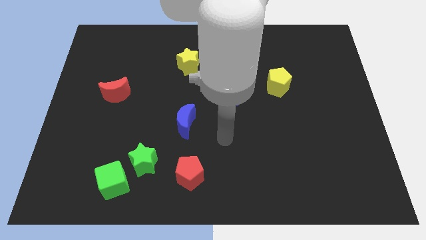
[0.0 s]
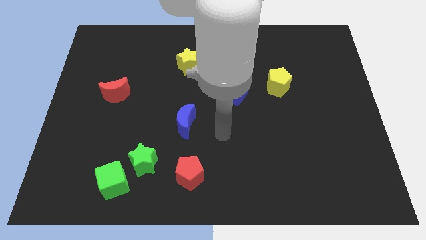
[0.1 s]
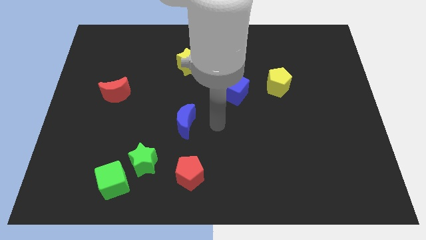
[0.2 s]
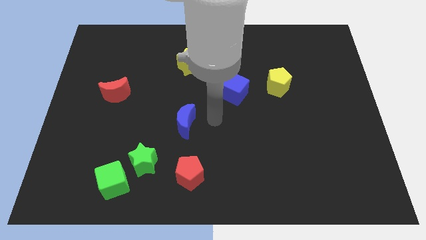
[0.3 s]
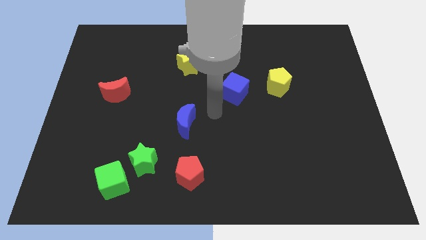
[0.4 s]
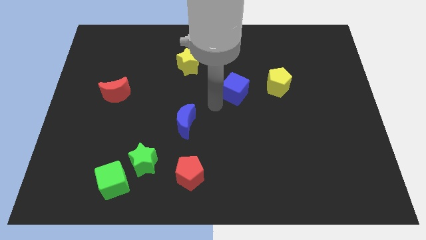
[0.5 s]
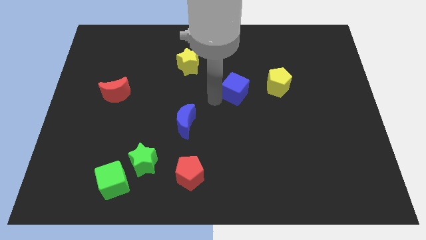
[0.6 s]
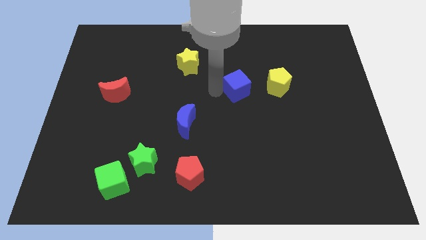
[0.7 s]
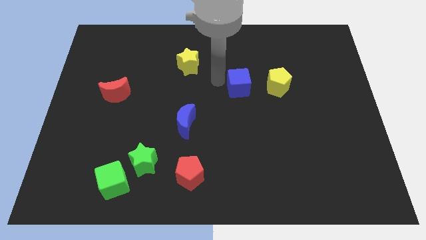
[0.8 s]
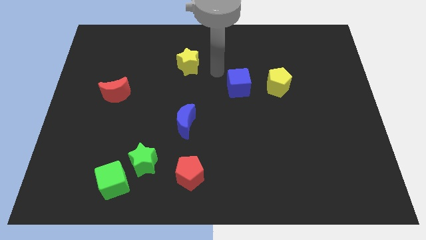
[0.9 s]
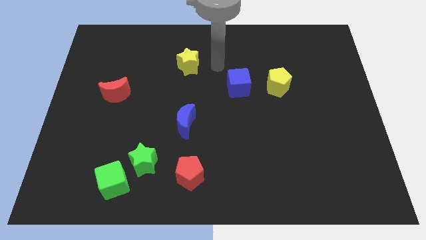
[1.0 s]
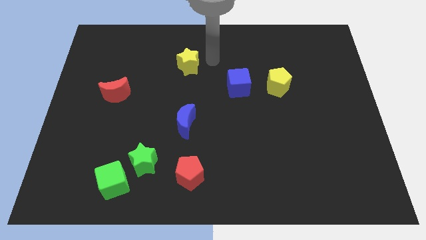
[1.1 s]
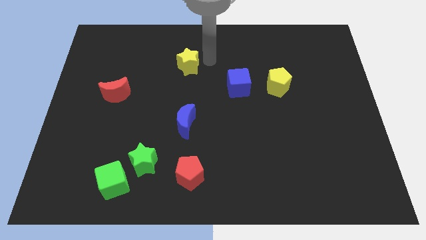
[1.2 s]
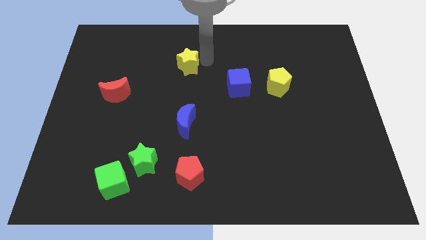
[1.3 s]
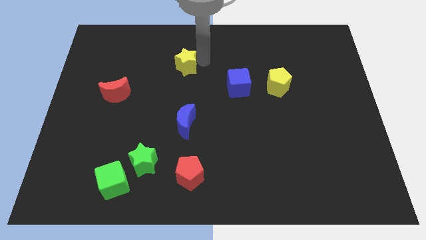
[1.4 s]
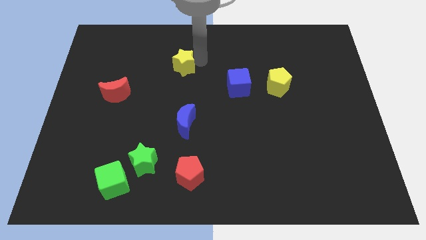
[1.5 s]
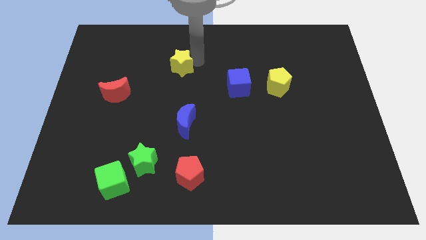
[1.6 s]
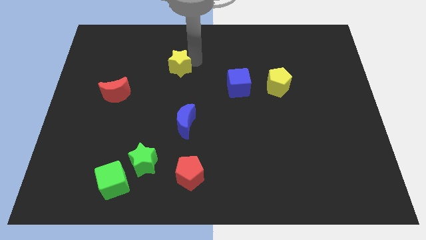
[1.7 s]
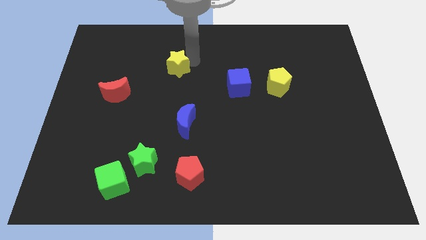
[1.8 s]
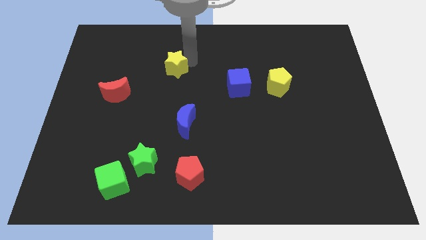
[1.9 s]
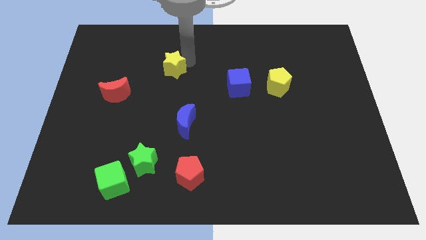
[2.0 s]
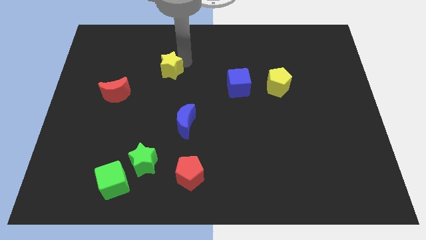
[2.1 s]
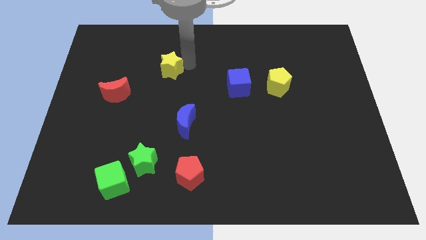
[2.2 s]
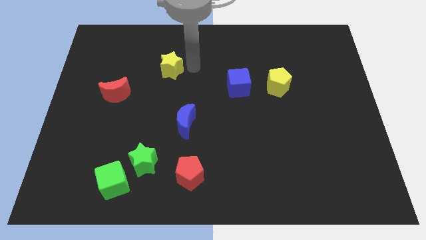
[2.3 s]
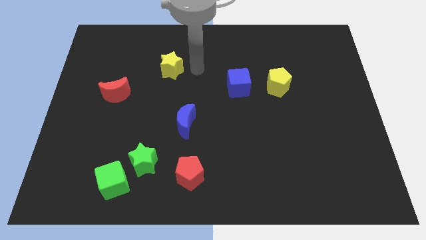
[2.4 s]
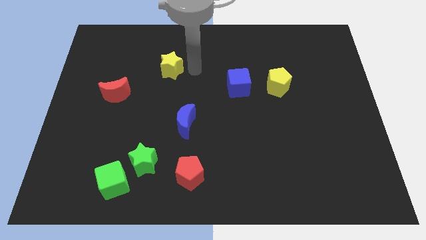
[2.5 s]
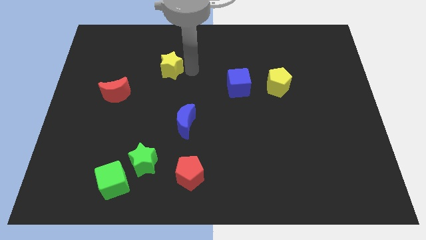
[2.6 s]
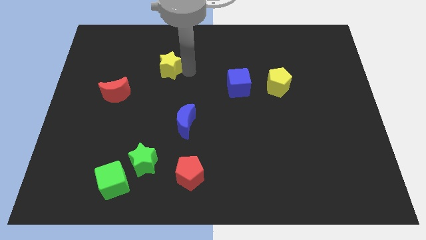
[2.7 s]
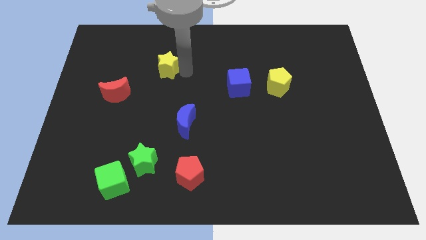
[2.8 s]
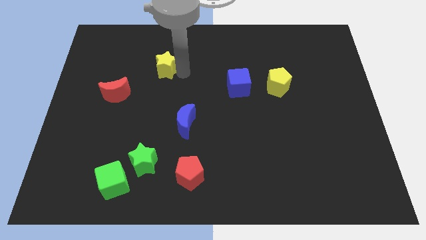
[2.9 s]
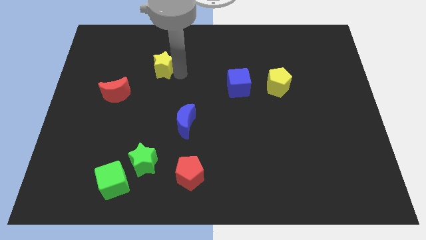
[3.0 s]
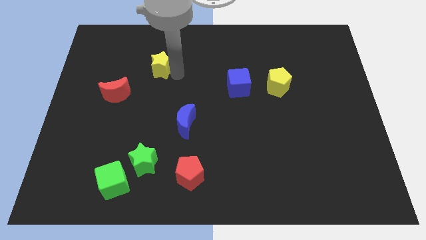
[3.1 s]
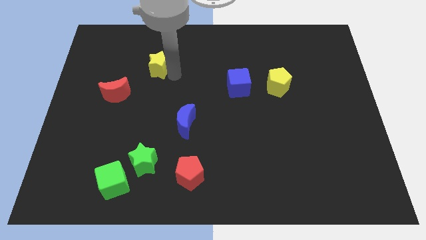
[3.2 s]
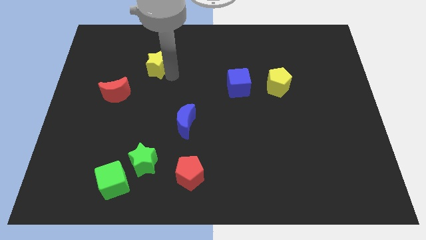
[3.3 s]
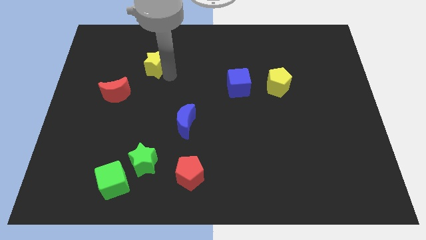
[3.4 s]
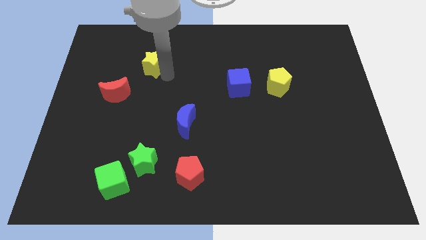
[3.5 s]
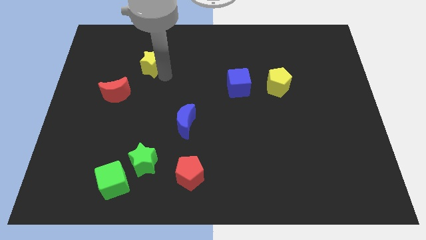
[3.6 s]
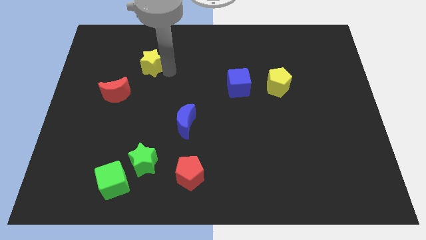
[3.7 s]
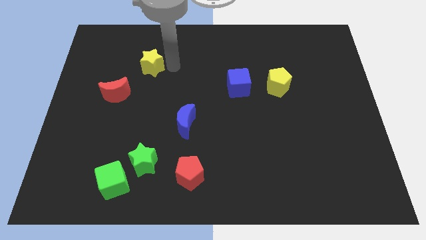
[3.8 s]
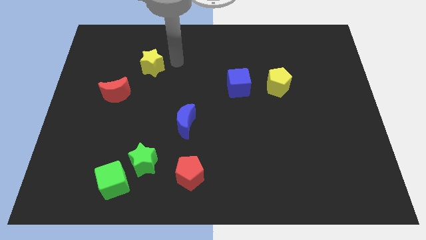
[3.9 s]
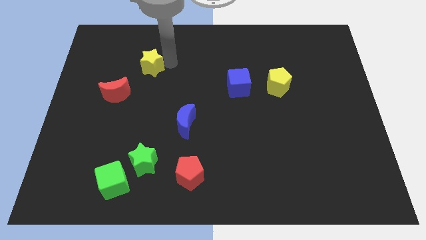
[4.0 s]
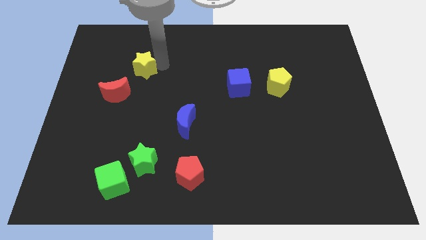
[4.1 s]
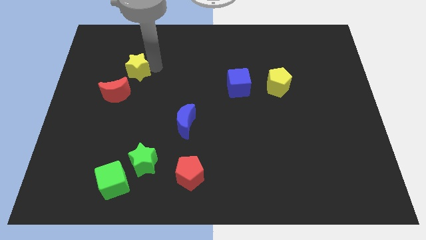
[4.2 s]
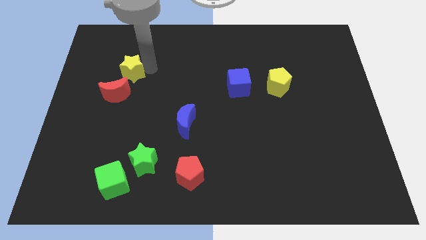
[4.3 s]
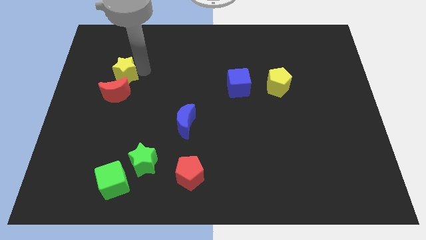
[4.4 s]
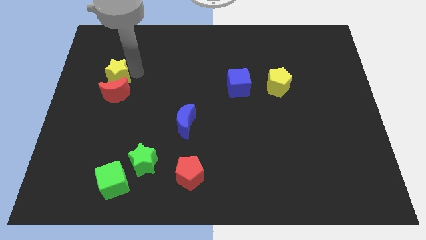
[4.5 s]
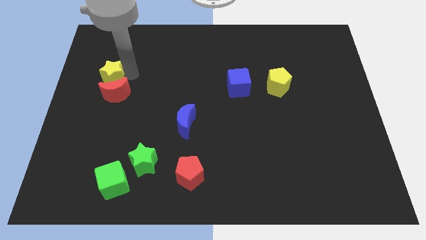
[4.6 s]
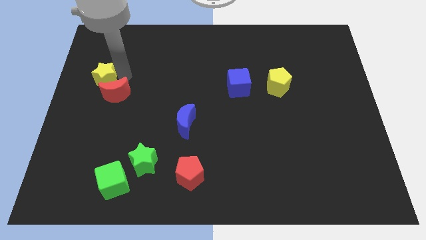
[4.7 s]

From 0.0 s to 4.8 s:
put the yellow star to the left side

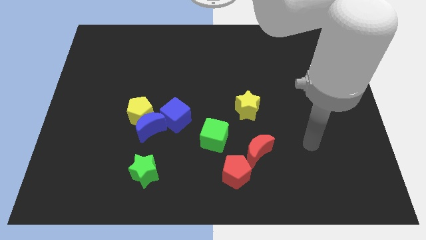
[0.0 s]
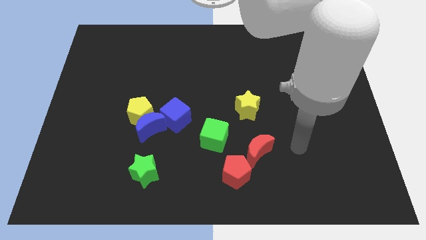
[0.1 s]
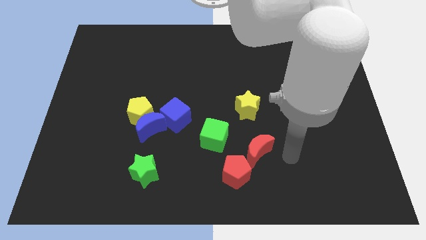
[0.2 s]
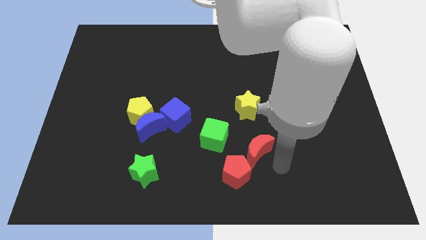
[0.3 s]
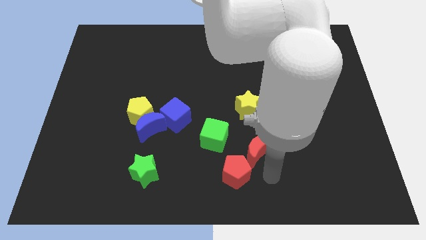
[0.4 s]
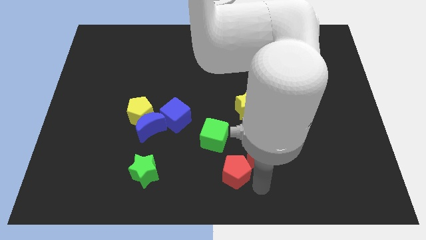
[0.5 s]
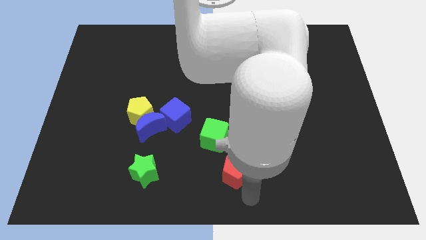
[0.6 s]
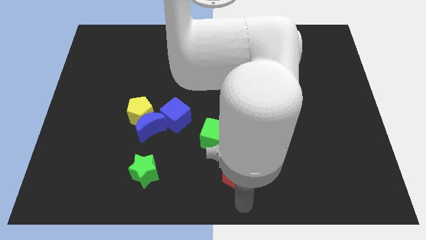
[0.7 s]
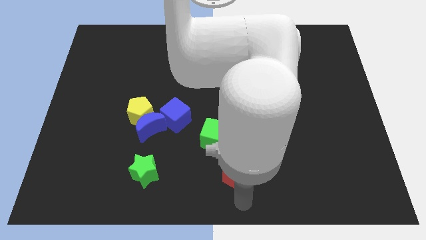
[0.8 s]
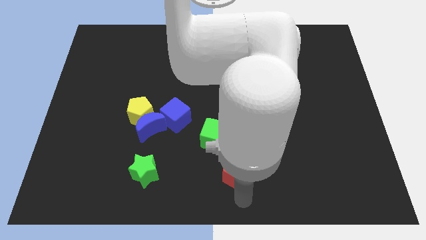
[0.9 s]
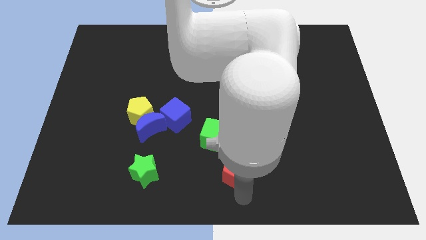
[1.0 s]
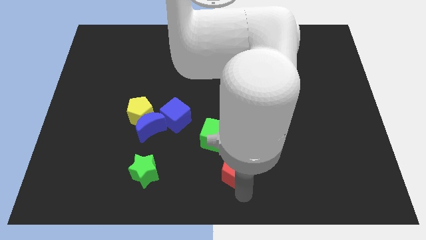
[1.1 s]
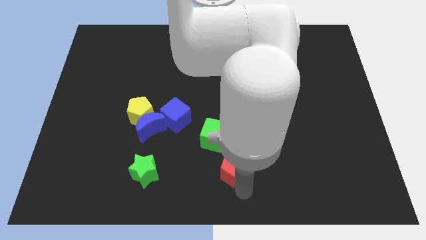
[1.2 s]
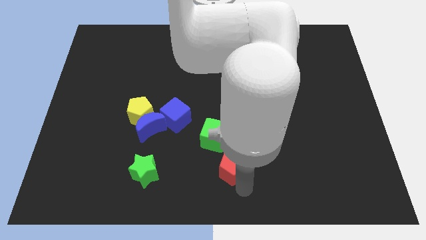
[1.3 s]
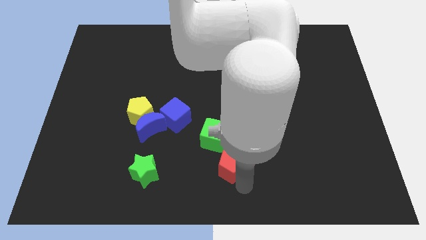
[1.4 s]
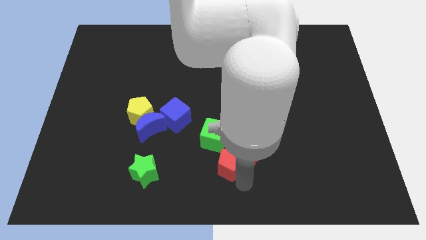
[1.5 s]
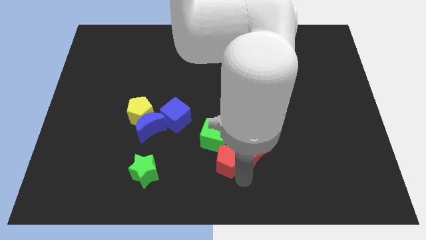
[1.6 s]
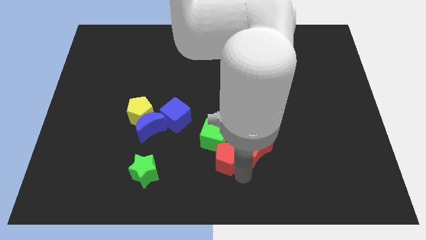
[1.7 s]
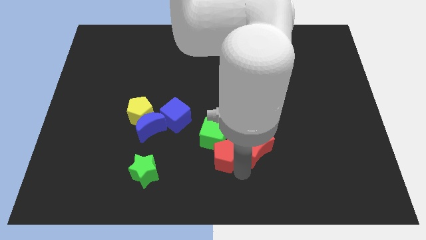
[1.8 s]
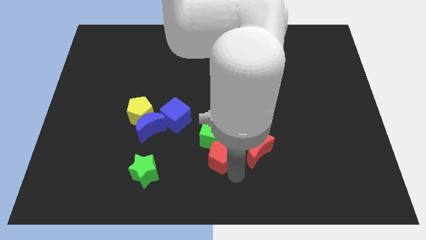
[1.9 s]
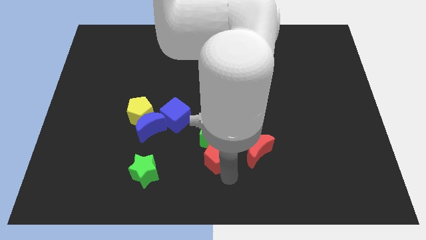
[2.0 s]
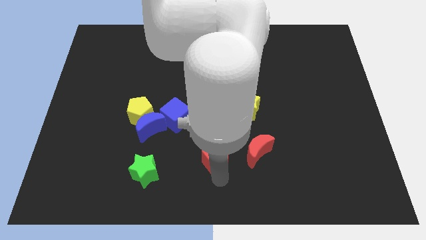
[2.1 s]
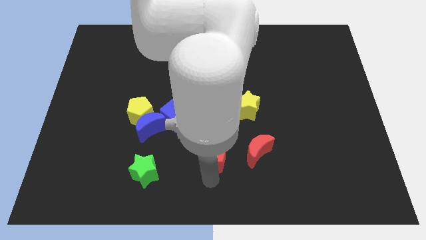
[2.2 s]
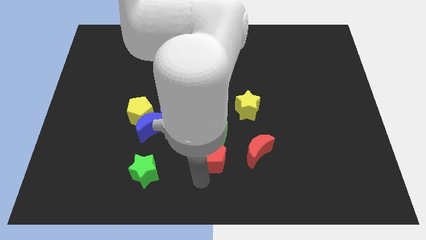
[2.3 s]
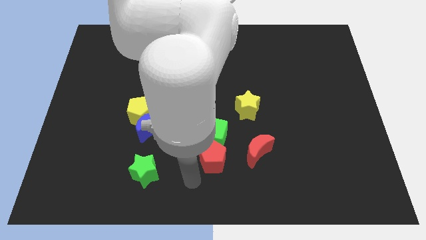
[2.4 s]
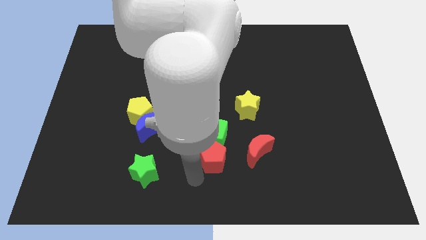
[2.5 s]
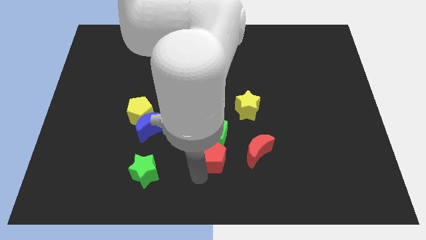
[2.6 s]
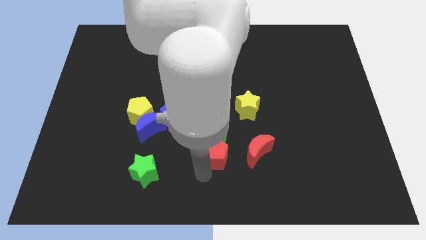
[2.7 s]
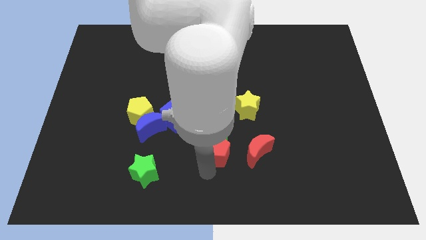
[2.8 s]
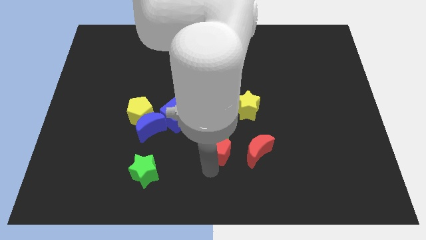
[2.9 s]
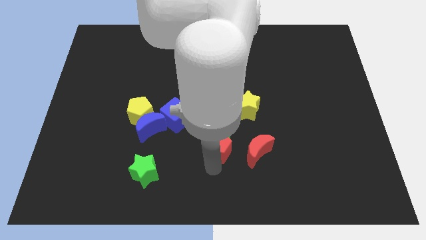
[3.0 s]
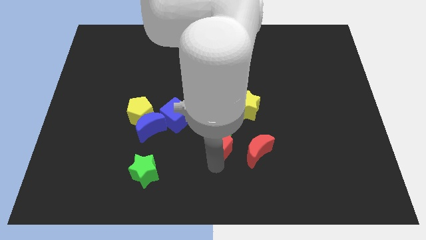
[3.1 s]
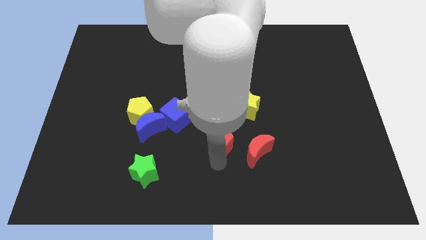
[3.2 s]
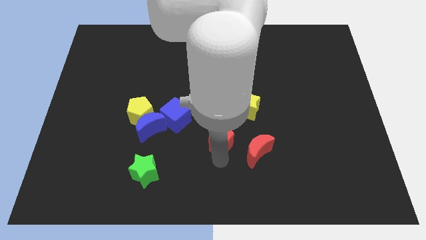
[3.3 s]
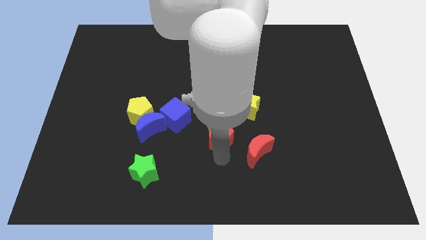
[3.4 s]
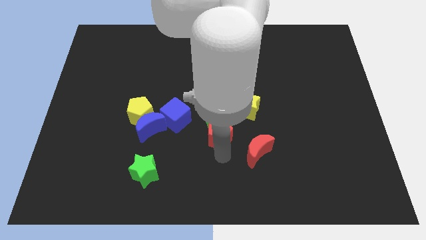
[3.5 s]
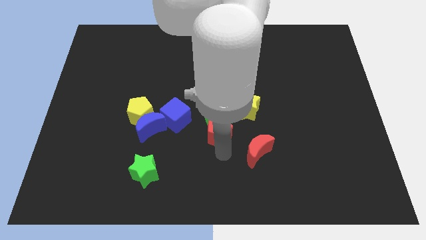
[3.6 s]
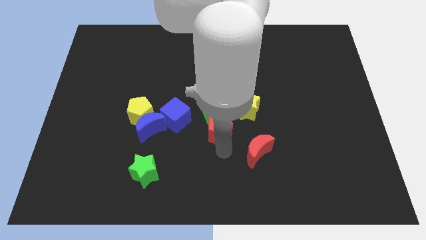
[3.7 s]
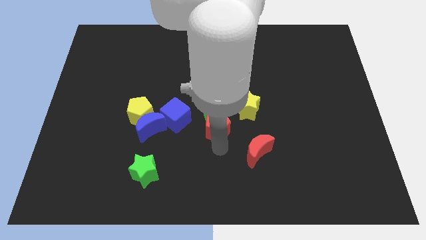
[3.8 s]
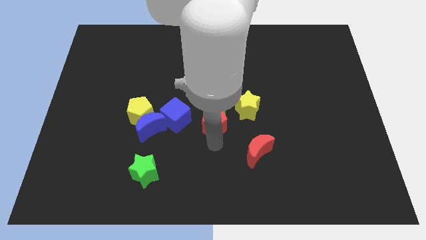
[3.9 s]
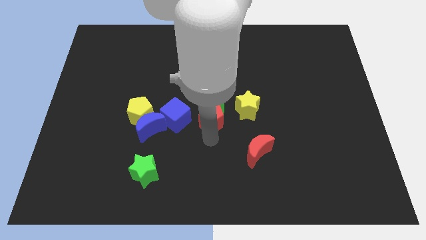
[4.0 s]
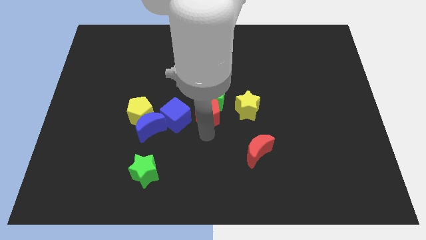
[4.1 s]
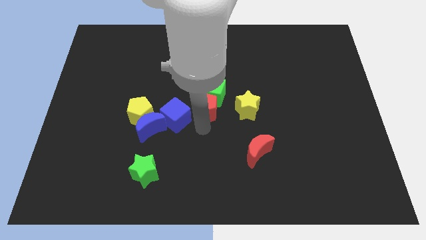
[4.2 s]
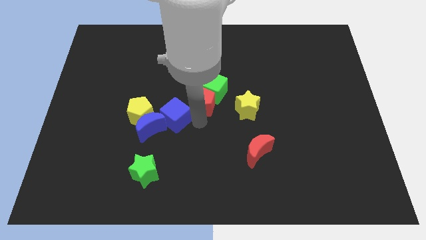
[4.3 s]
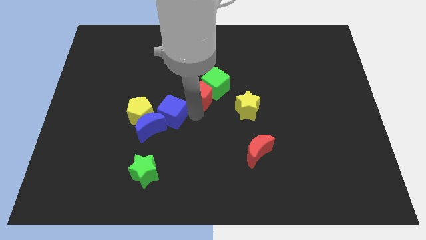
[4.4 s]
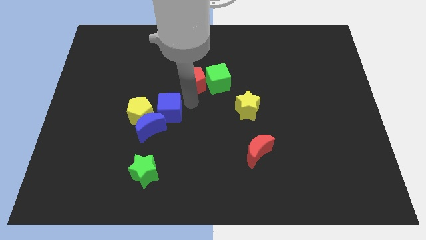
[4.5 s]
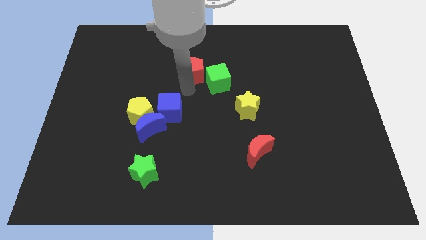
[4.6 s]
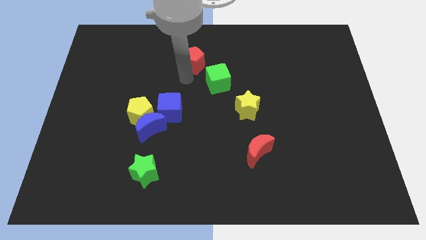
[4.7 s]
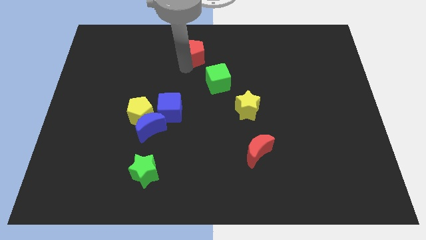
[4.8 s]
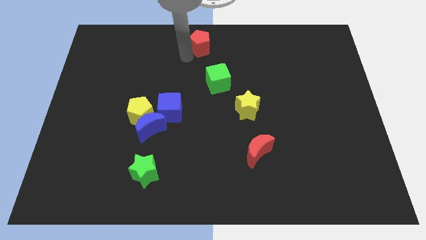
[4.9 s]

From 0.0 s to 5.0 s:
put the red pentagon to the towards your base
